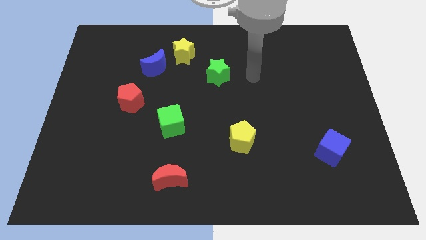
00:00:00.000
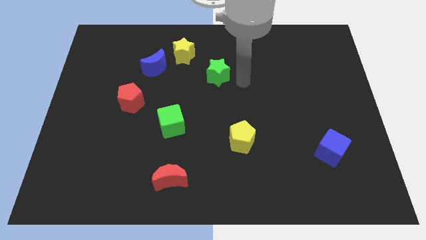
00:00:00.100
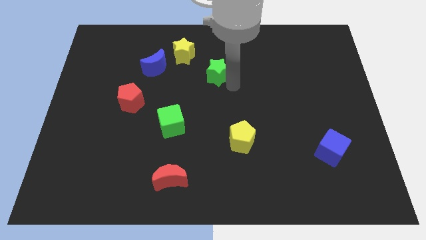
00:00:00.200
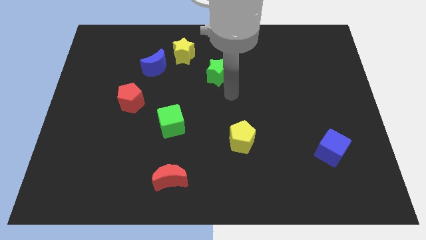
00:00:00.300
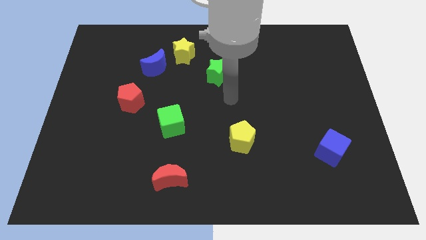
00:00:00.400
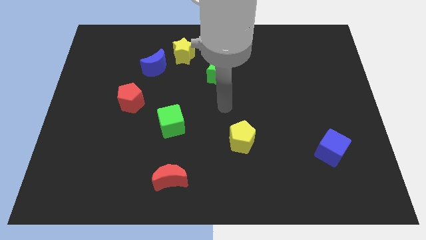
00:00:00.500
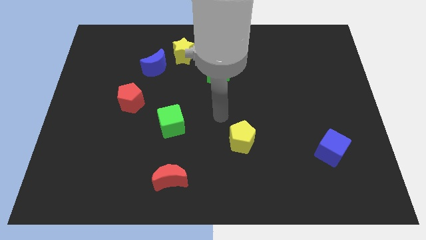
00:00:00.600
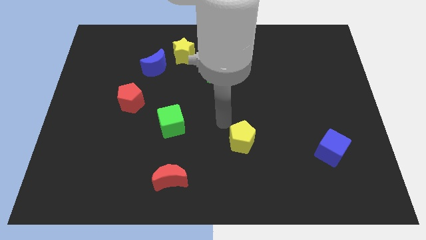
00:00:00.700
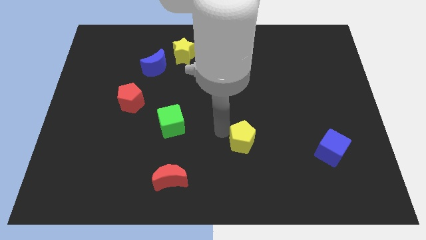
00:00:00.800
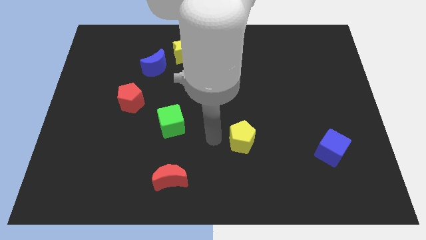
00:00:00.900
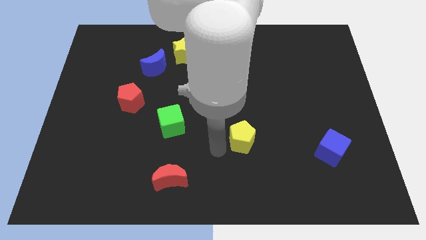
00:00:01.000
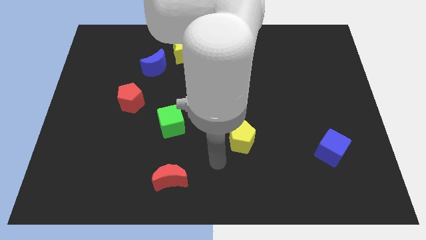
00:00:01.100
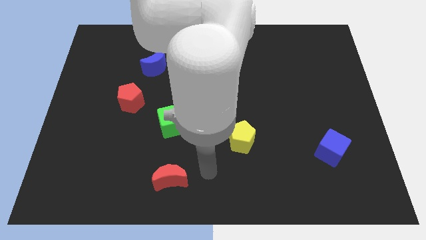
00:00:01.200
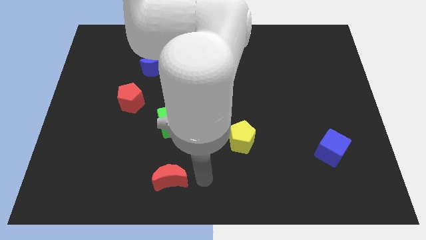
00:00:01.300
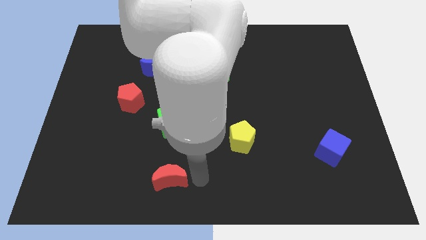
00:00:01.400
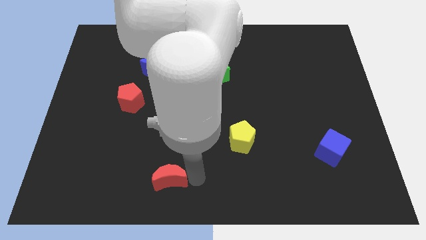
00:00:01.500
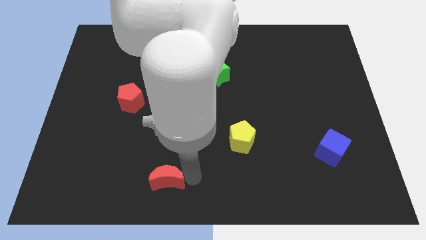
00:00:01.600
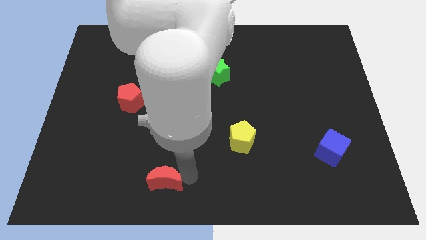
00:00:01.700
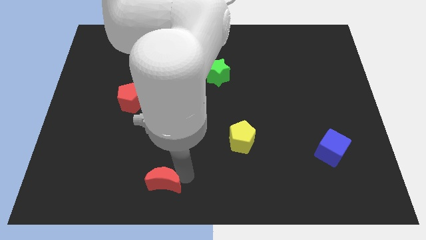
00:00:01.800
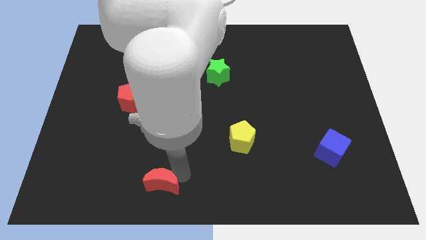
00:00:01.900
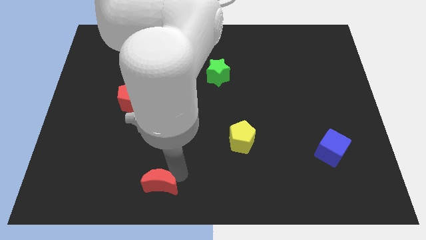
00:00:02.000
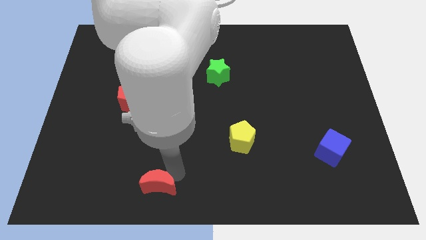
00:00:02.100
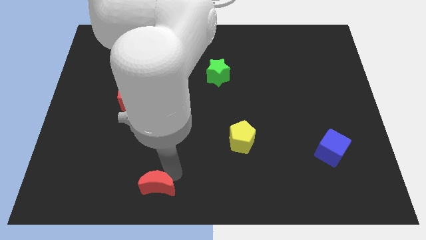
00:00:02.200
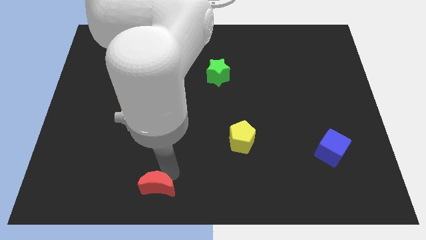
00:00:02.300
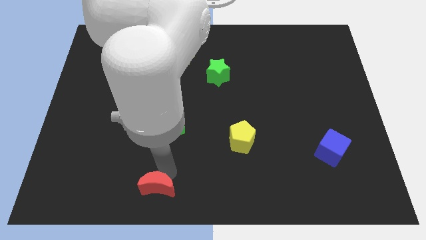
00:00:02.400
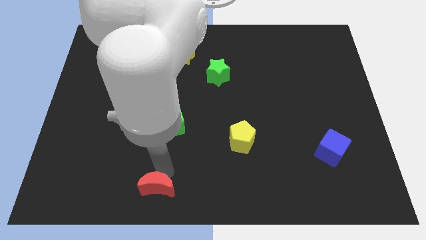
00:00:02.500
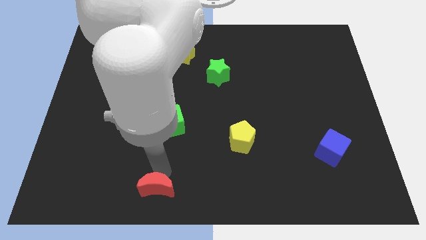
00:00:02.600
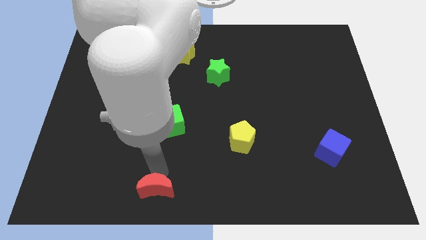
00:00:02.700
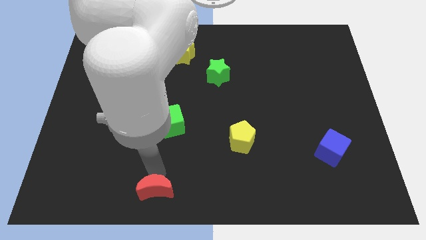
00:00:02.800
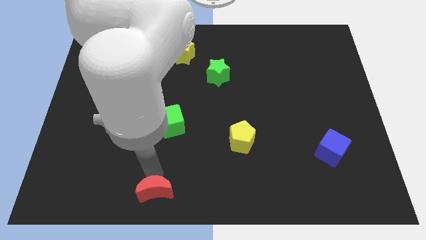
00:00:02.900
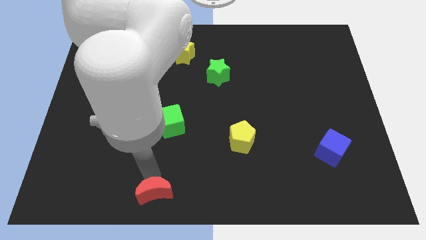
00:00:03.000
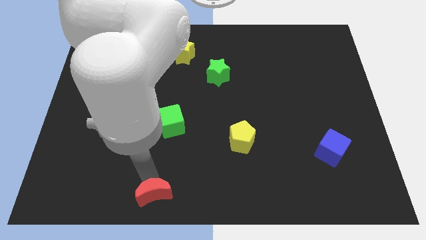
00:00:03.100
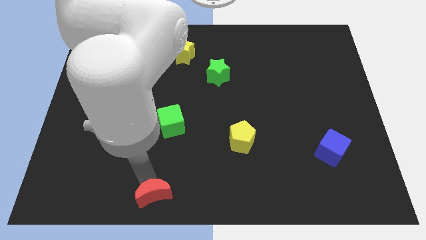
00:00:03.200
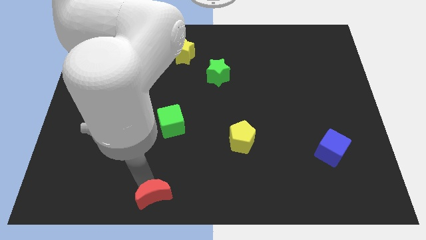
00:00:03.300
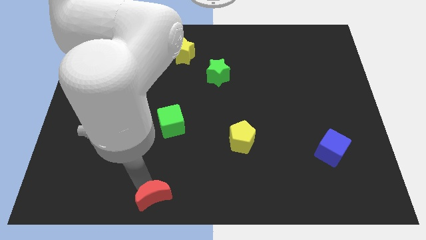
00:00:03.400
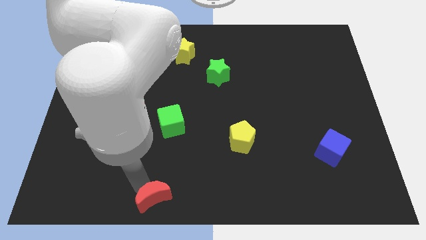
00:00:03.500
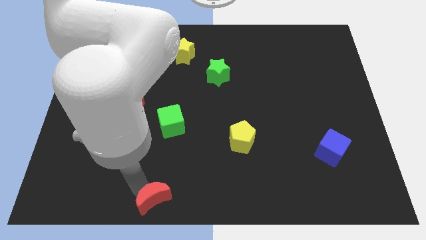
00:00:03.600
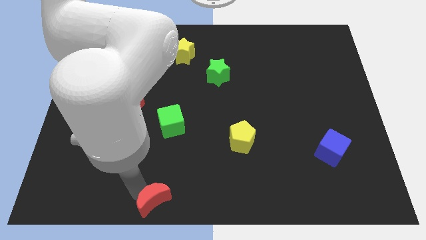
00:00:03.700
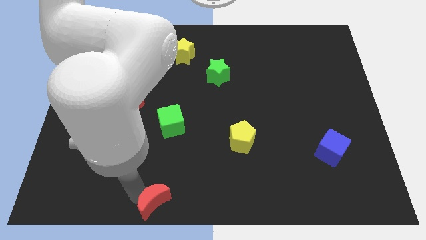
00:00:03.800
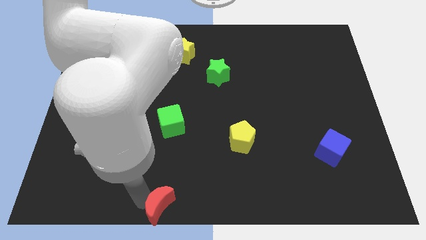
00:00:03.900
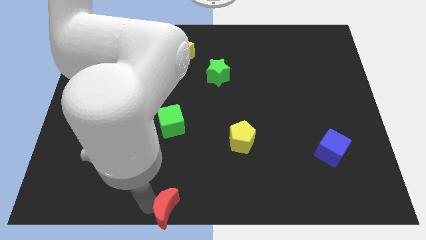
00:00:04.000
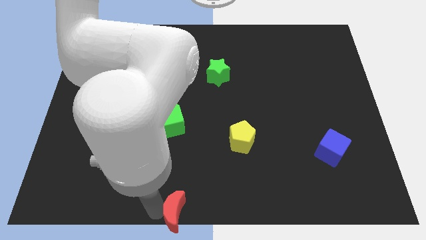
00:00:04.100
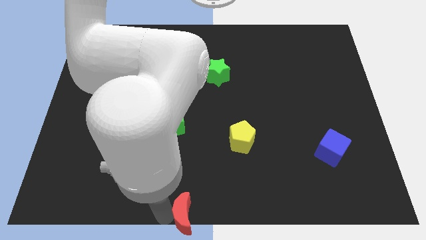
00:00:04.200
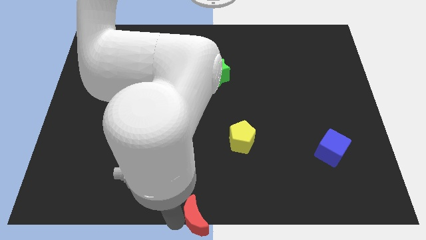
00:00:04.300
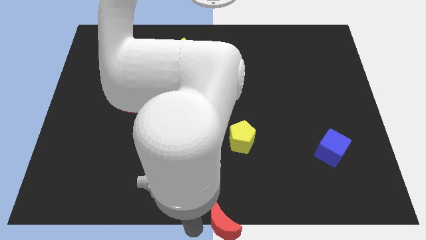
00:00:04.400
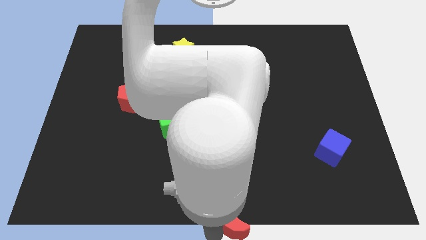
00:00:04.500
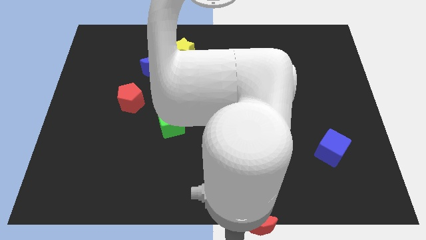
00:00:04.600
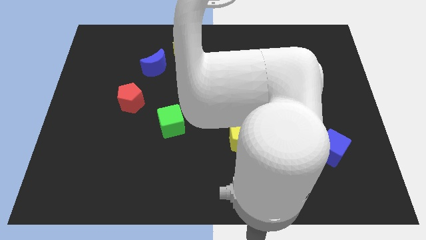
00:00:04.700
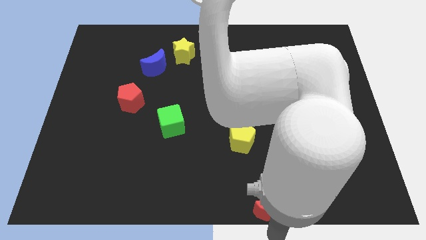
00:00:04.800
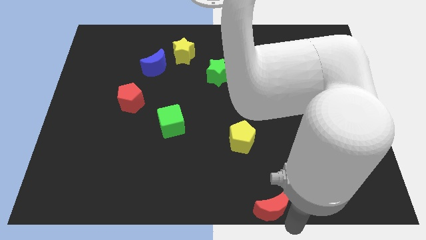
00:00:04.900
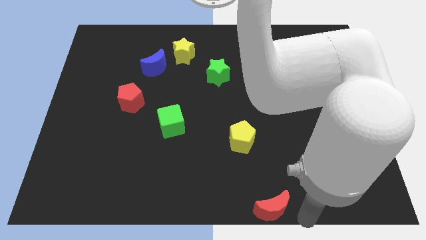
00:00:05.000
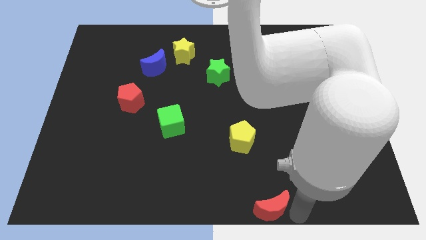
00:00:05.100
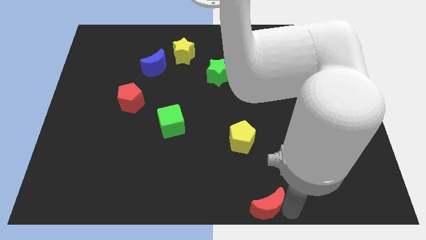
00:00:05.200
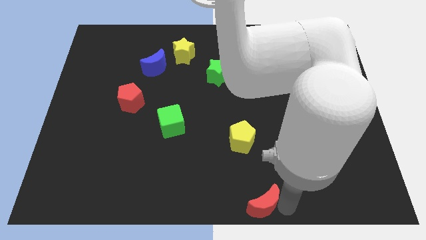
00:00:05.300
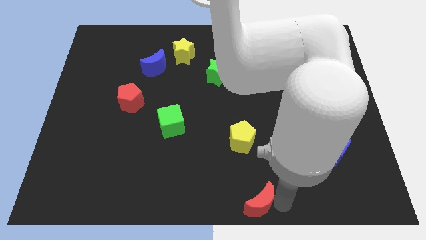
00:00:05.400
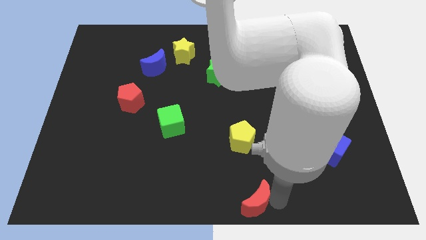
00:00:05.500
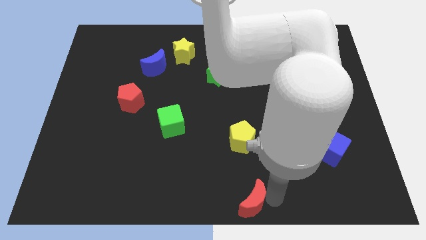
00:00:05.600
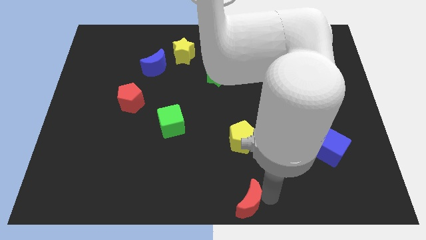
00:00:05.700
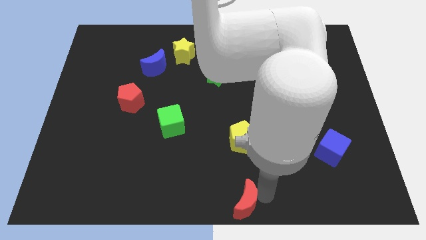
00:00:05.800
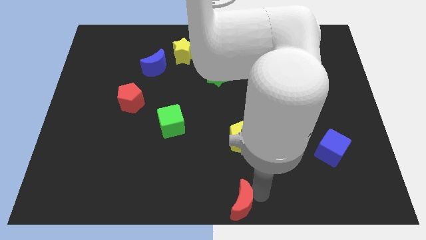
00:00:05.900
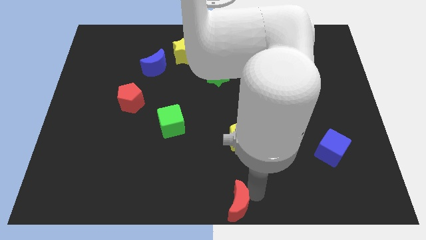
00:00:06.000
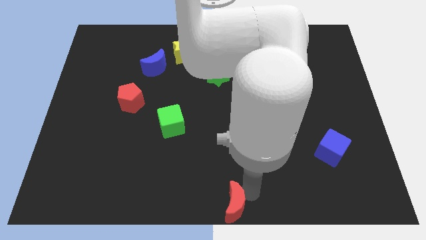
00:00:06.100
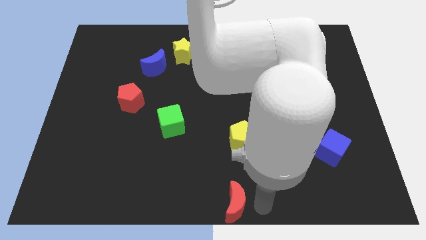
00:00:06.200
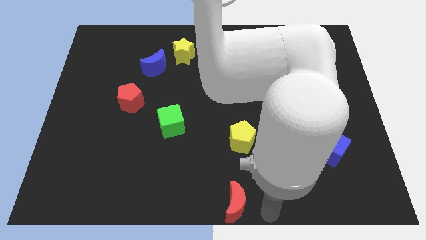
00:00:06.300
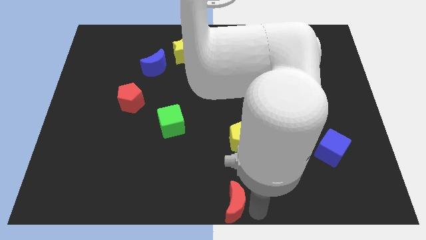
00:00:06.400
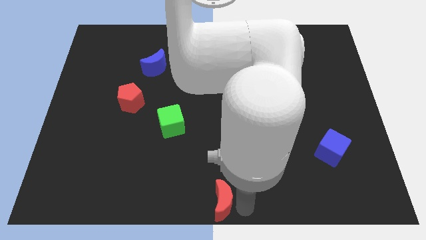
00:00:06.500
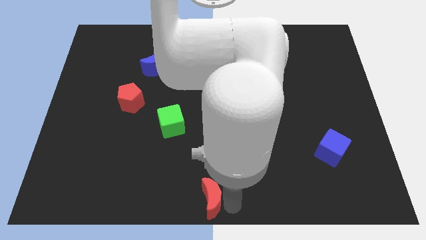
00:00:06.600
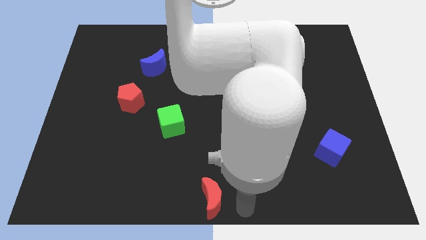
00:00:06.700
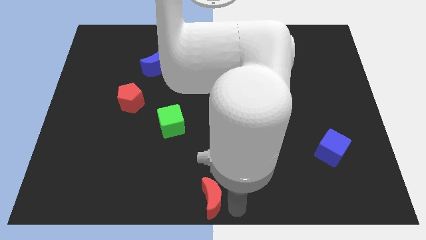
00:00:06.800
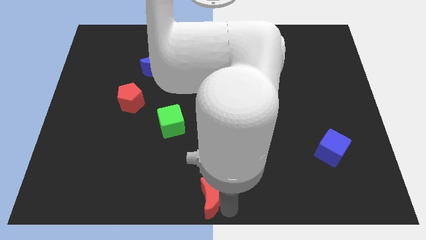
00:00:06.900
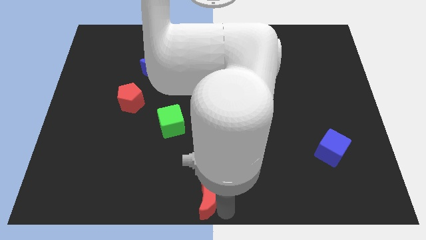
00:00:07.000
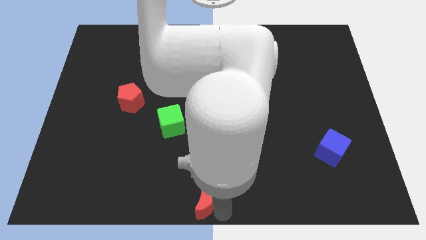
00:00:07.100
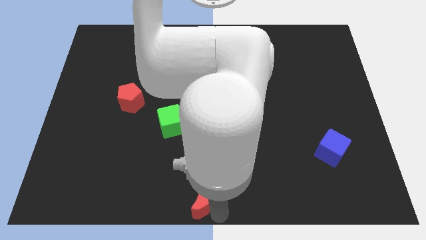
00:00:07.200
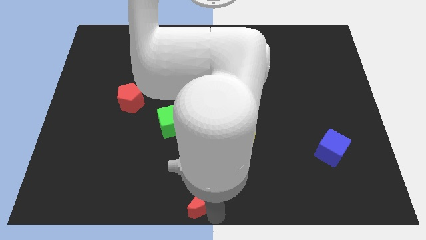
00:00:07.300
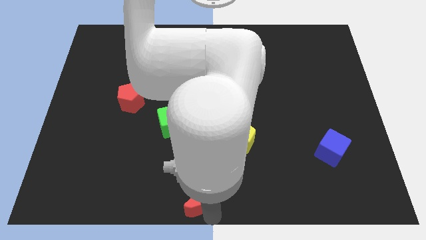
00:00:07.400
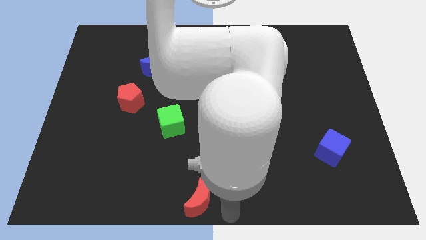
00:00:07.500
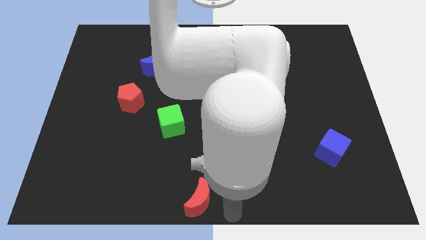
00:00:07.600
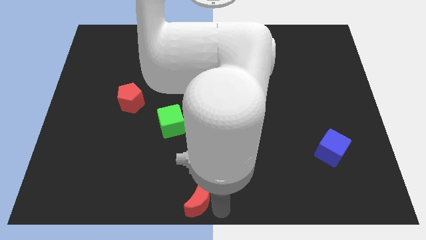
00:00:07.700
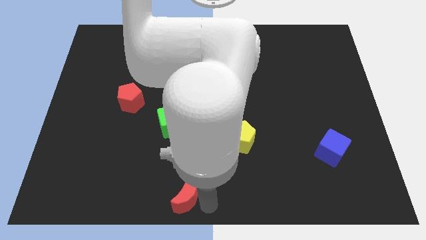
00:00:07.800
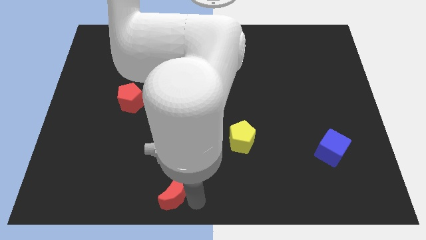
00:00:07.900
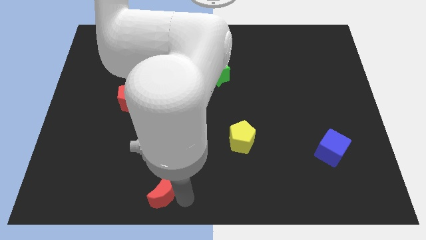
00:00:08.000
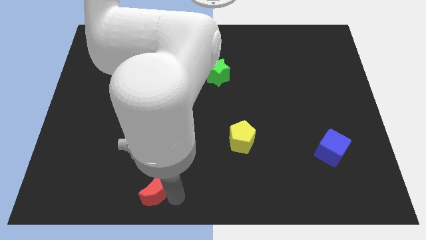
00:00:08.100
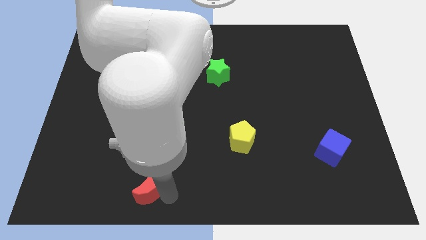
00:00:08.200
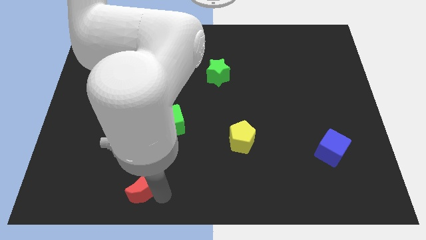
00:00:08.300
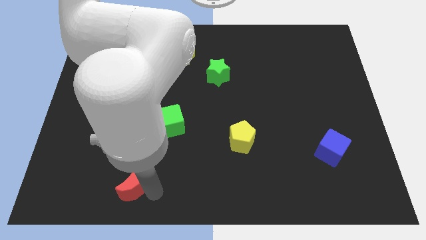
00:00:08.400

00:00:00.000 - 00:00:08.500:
slightly slide the red moon to the left
